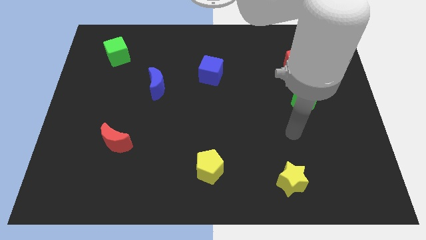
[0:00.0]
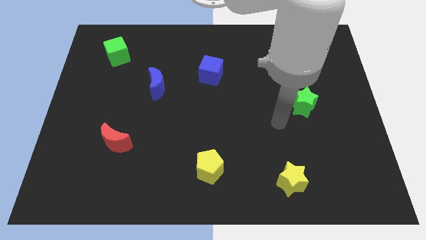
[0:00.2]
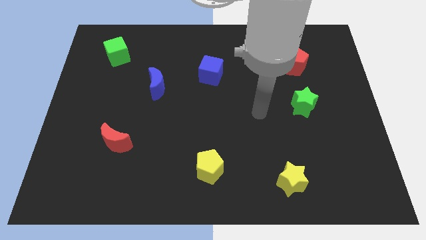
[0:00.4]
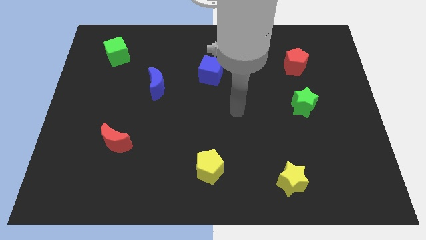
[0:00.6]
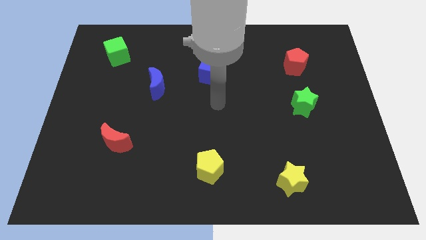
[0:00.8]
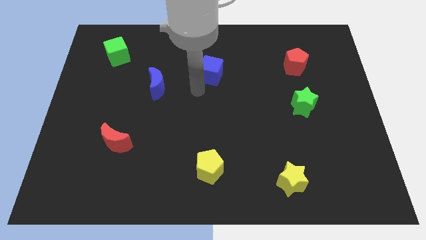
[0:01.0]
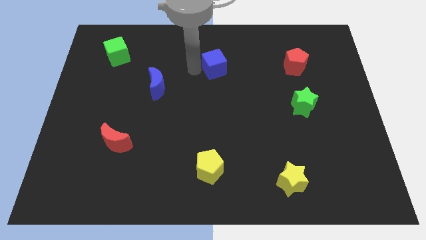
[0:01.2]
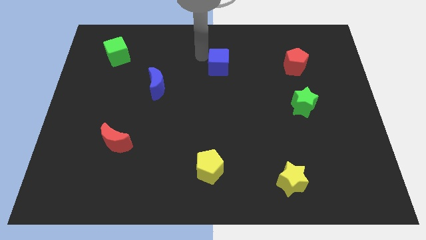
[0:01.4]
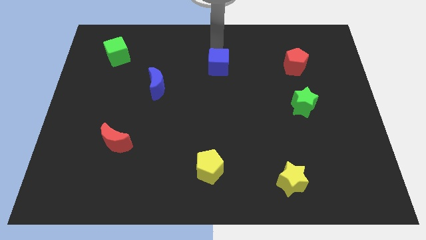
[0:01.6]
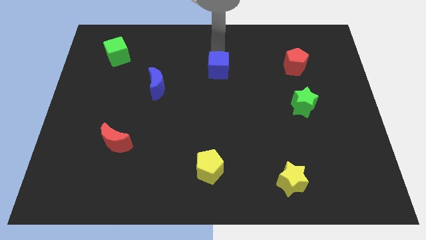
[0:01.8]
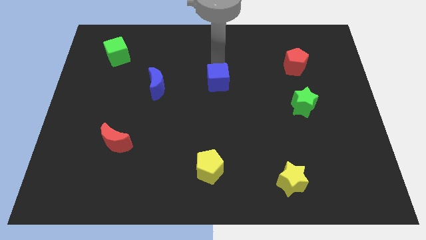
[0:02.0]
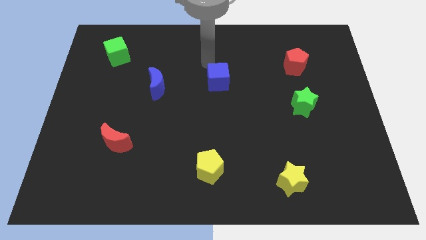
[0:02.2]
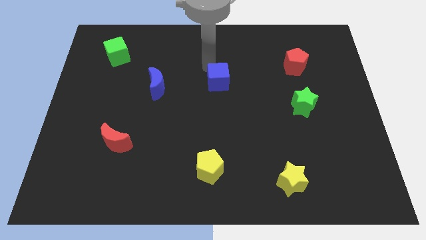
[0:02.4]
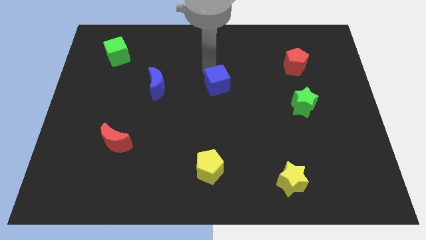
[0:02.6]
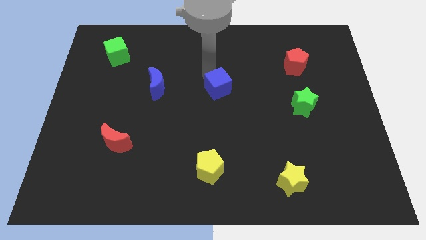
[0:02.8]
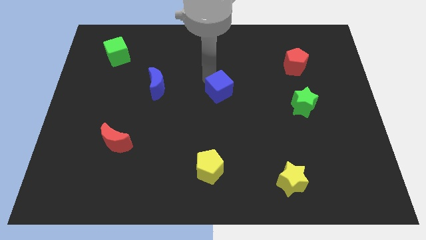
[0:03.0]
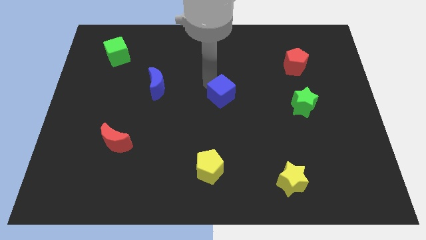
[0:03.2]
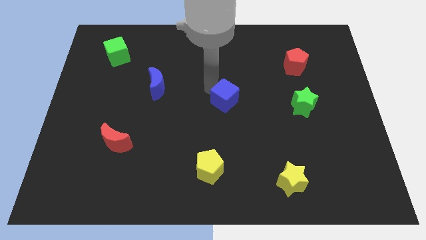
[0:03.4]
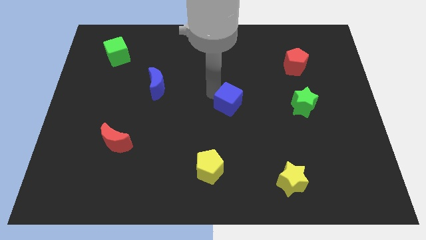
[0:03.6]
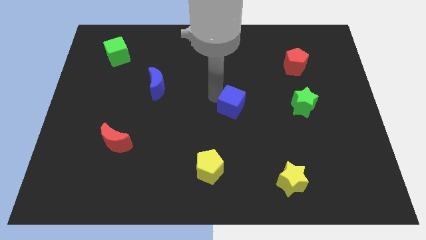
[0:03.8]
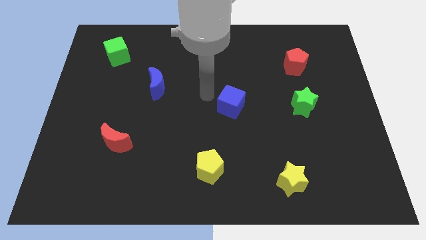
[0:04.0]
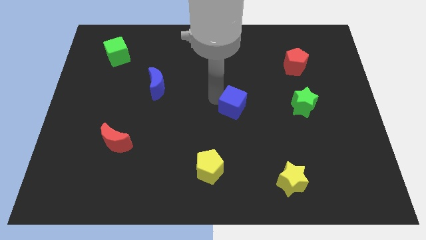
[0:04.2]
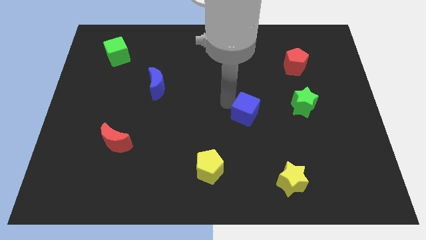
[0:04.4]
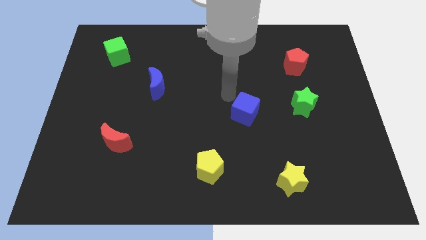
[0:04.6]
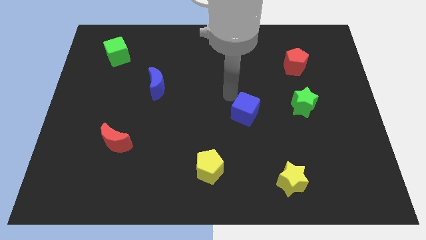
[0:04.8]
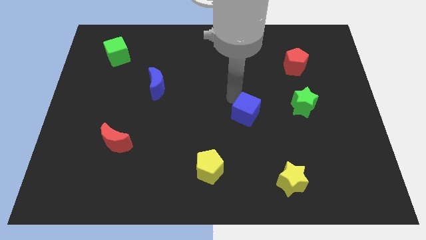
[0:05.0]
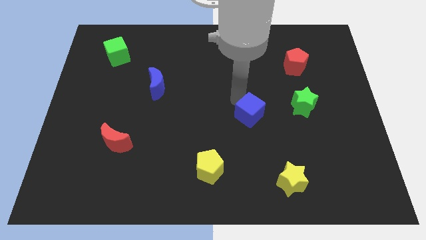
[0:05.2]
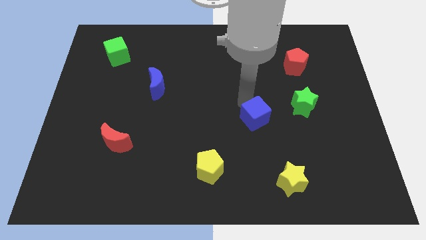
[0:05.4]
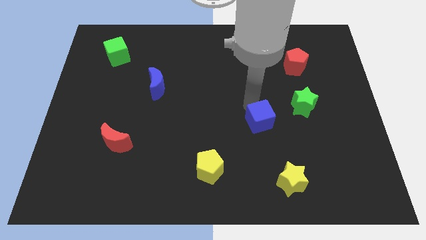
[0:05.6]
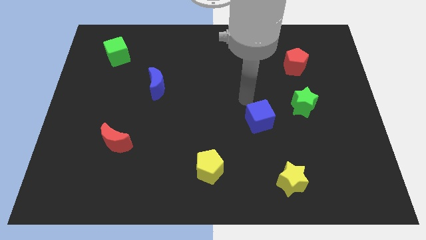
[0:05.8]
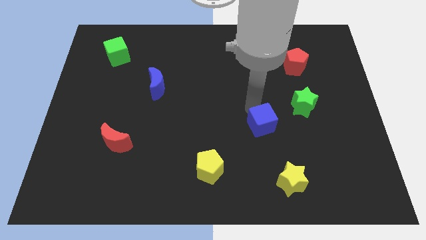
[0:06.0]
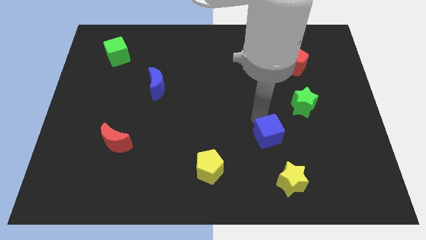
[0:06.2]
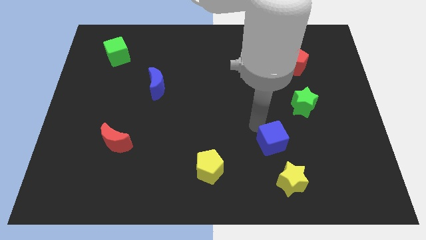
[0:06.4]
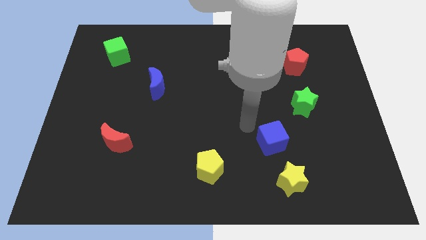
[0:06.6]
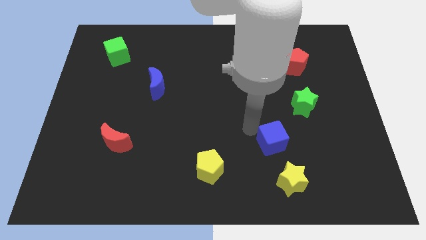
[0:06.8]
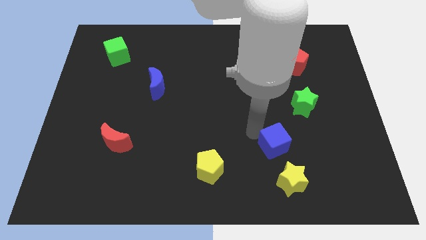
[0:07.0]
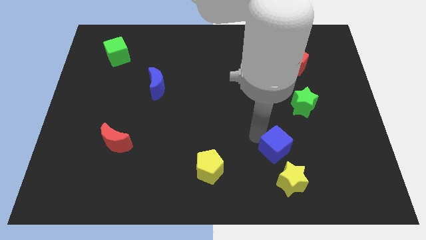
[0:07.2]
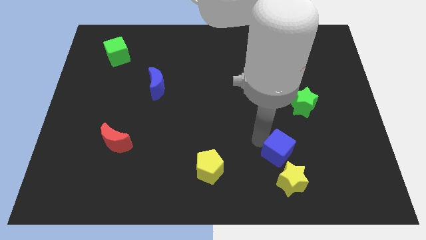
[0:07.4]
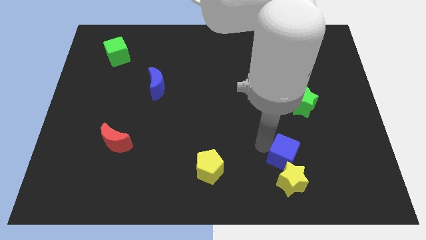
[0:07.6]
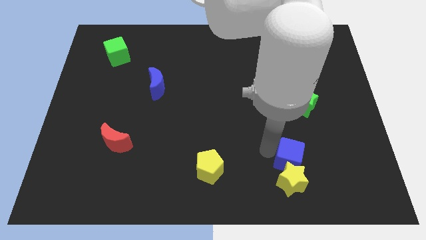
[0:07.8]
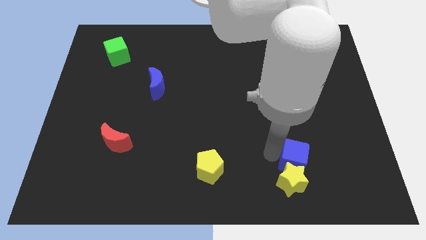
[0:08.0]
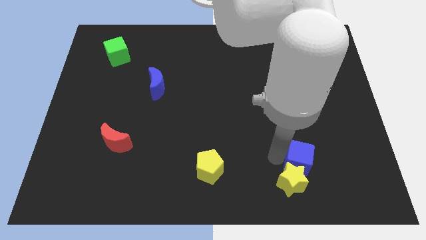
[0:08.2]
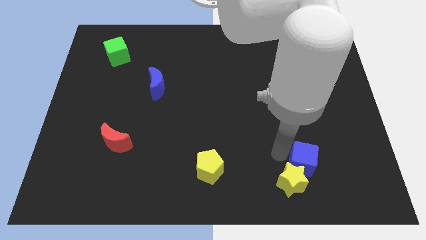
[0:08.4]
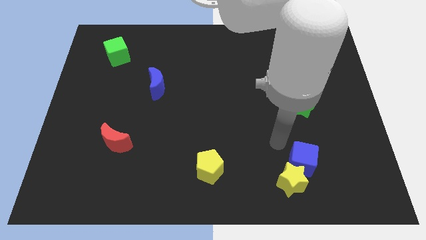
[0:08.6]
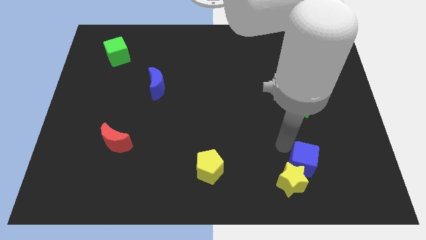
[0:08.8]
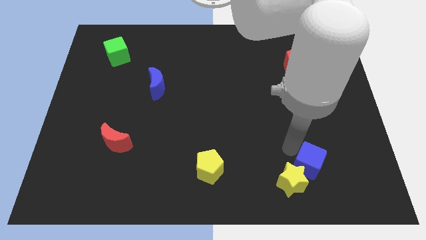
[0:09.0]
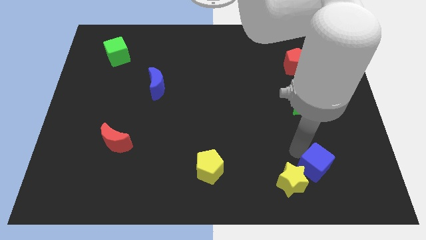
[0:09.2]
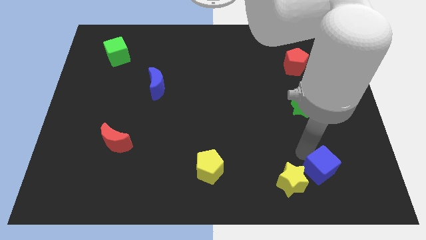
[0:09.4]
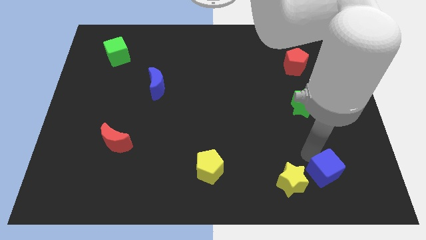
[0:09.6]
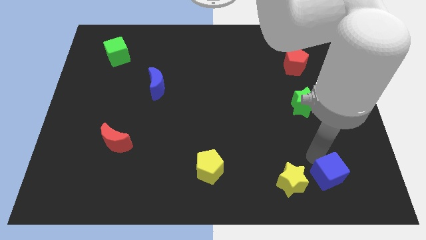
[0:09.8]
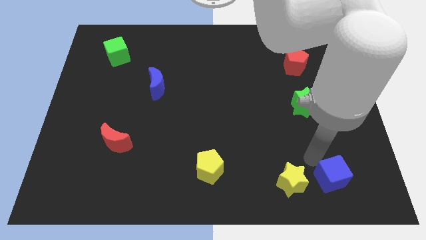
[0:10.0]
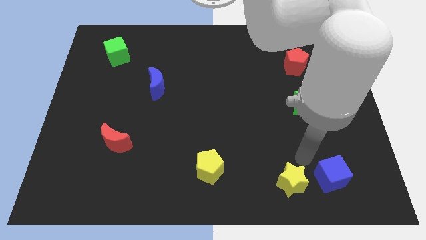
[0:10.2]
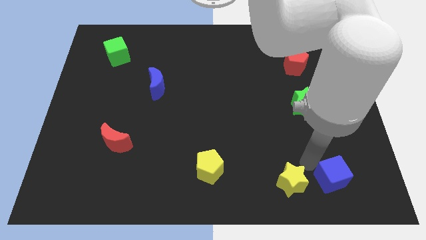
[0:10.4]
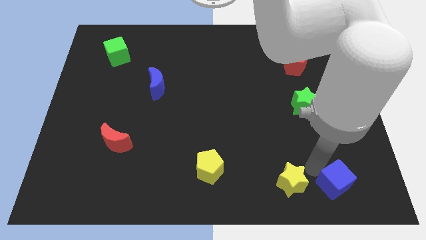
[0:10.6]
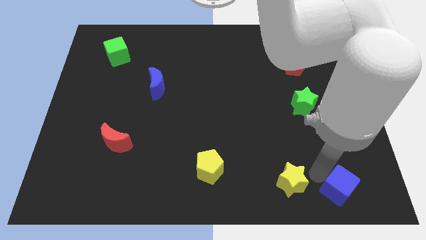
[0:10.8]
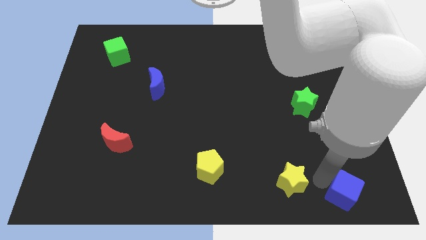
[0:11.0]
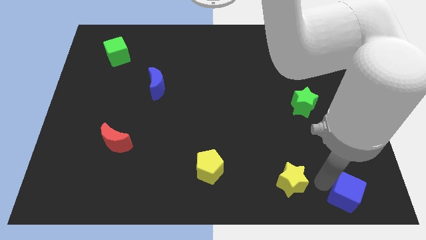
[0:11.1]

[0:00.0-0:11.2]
push the blue cube to the bottom right corner

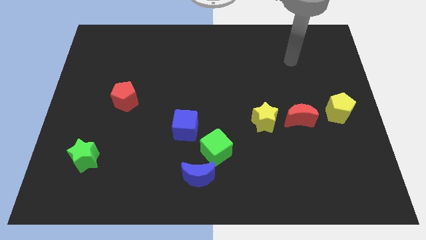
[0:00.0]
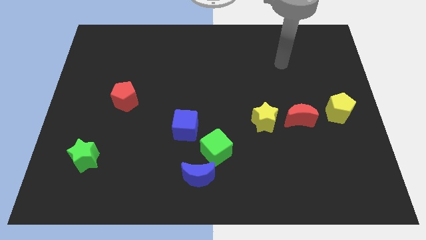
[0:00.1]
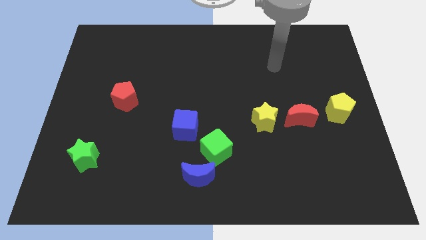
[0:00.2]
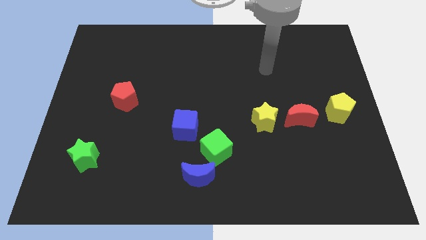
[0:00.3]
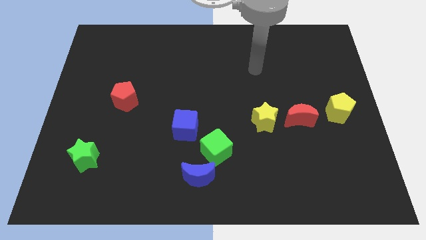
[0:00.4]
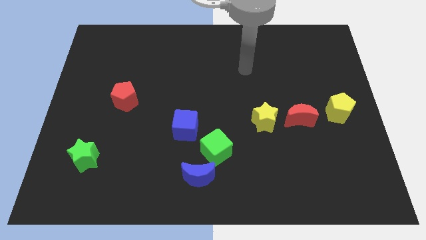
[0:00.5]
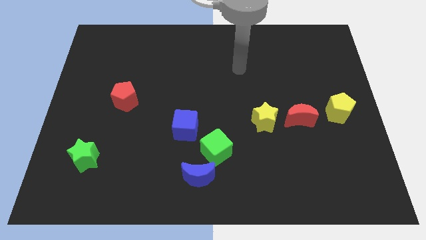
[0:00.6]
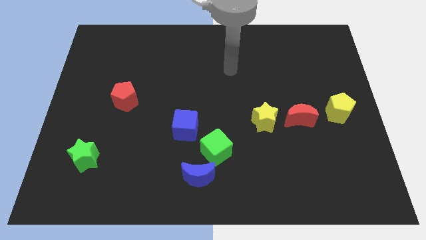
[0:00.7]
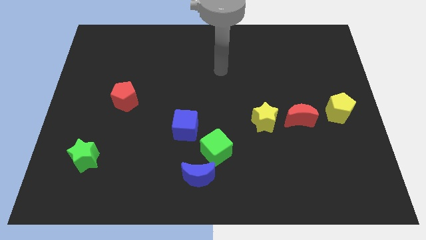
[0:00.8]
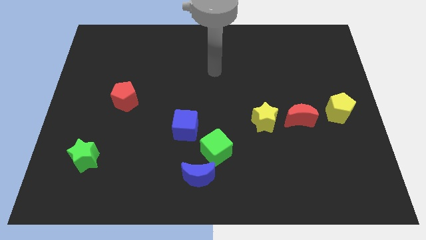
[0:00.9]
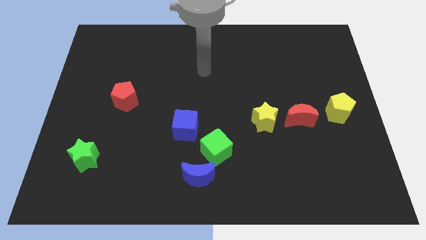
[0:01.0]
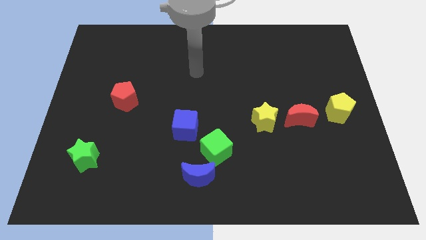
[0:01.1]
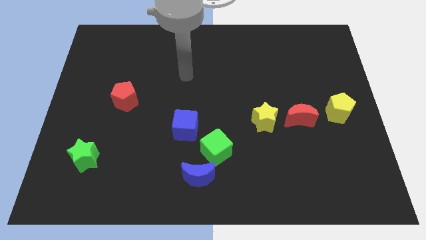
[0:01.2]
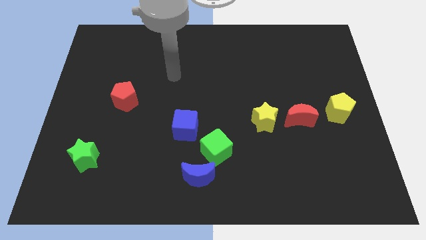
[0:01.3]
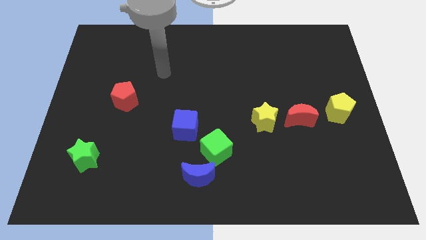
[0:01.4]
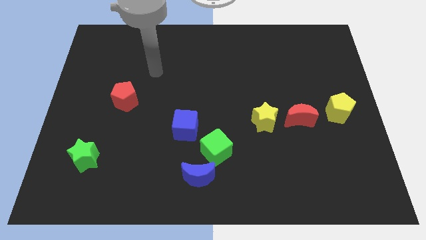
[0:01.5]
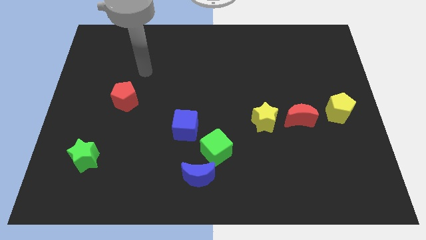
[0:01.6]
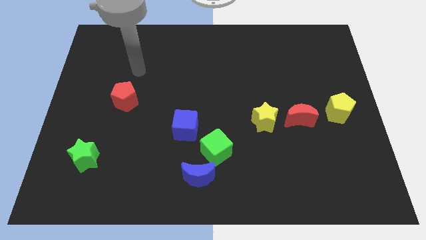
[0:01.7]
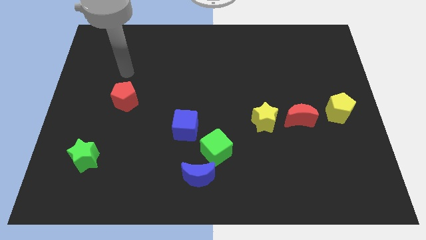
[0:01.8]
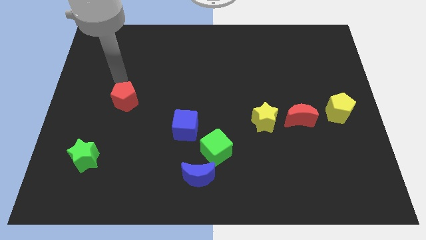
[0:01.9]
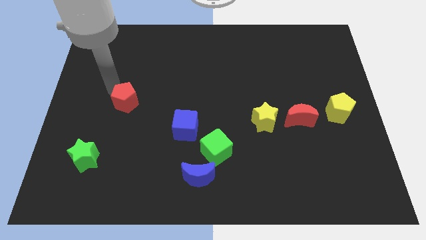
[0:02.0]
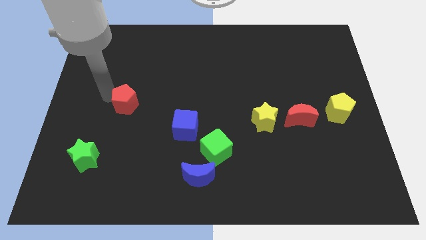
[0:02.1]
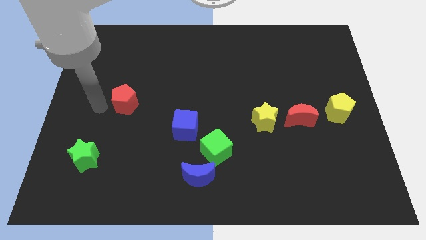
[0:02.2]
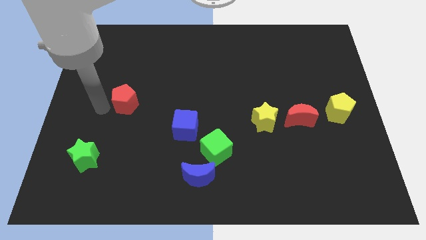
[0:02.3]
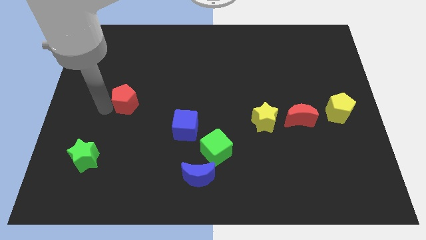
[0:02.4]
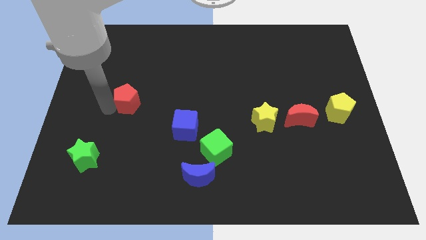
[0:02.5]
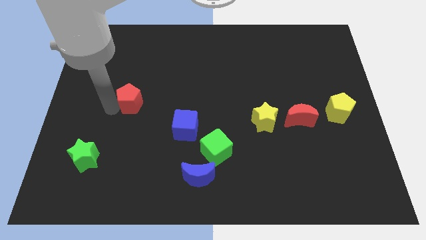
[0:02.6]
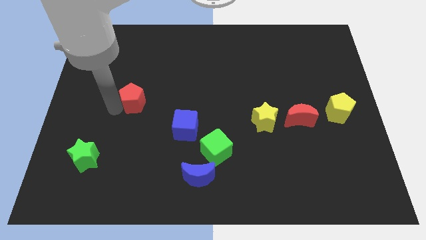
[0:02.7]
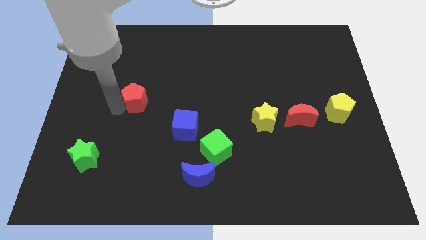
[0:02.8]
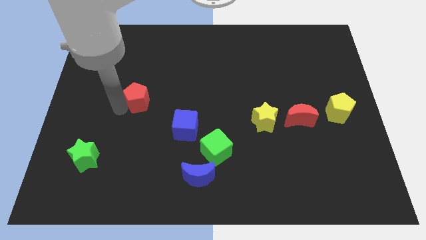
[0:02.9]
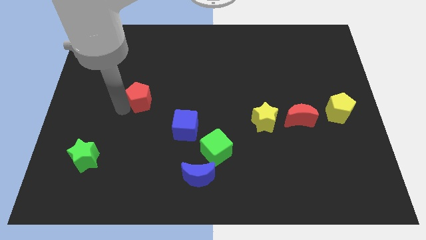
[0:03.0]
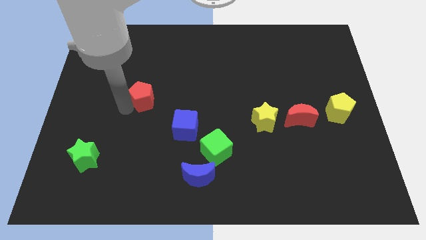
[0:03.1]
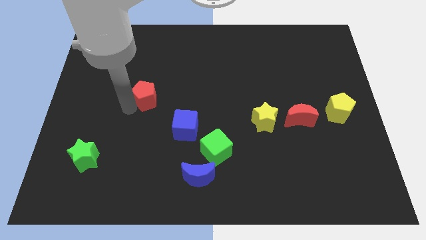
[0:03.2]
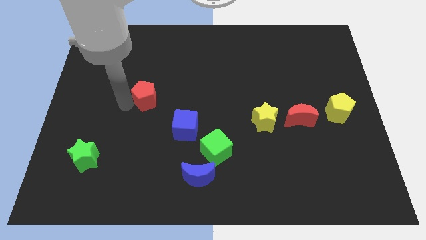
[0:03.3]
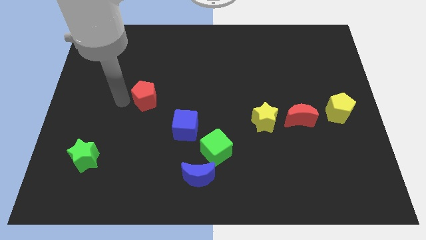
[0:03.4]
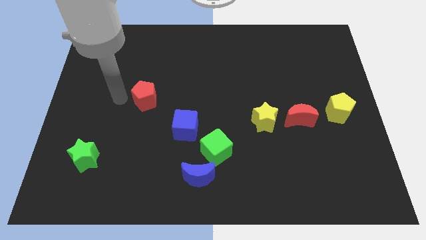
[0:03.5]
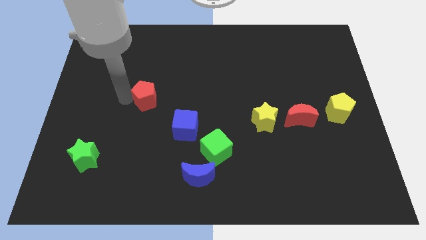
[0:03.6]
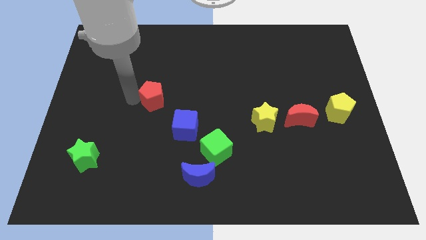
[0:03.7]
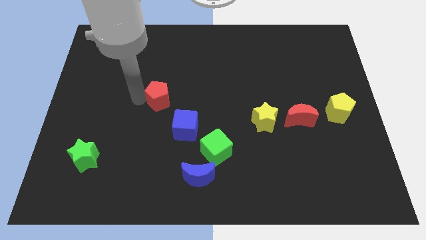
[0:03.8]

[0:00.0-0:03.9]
slide the red pentagon to the center
